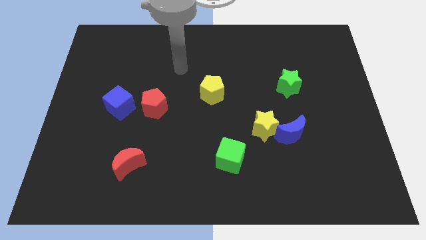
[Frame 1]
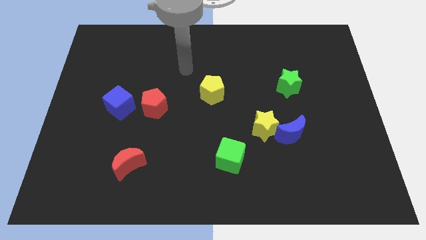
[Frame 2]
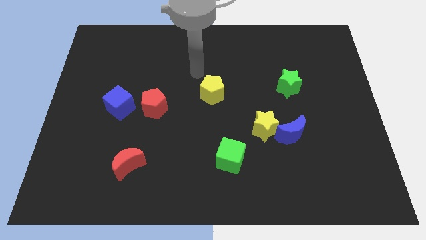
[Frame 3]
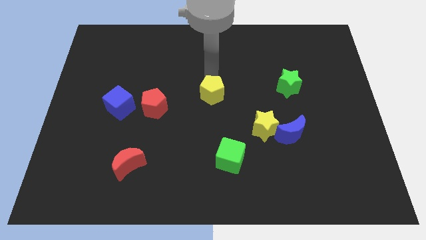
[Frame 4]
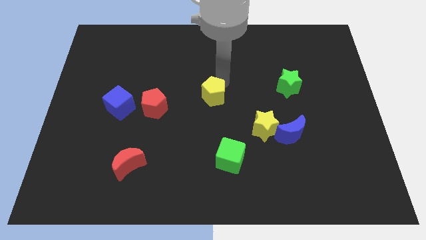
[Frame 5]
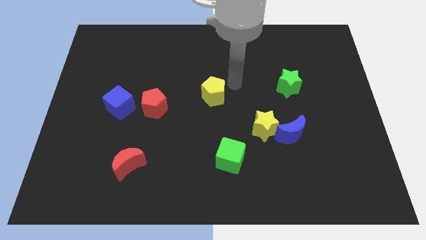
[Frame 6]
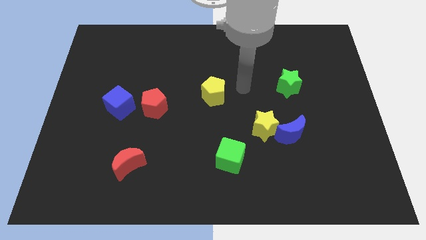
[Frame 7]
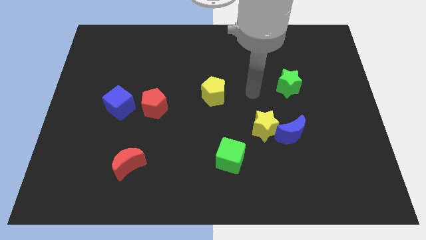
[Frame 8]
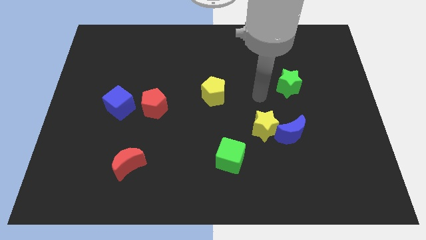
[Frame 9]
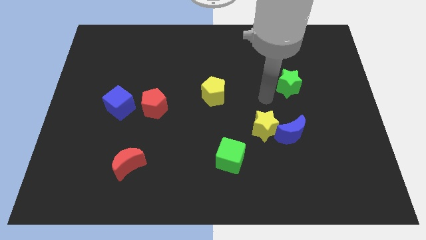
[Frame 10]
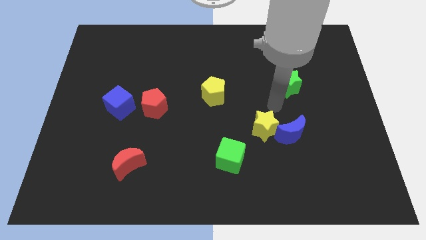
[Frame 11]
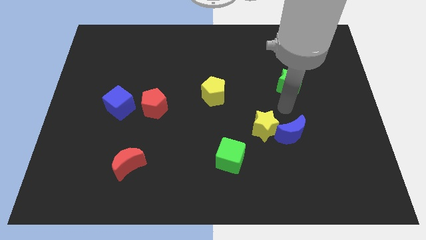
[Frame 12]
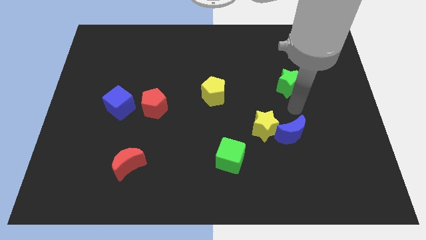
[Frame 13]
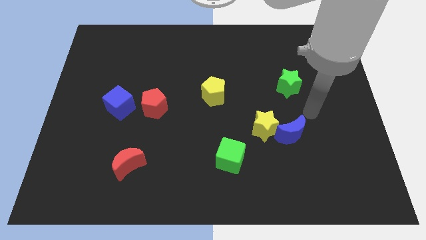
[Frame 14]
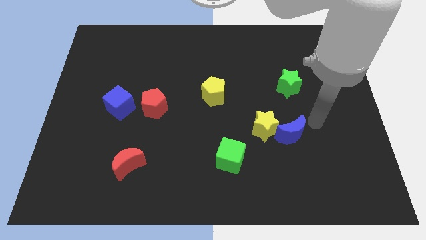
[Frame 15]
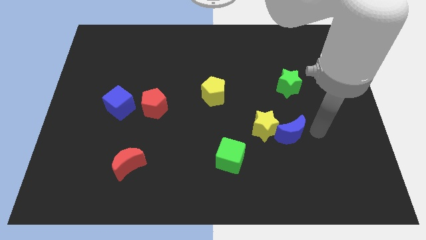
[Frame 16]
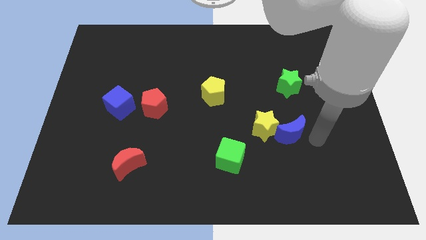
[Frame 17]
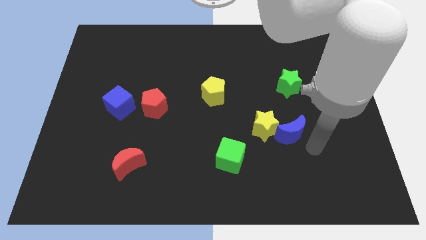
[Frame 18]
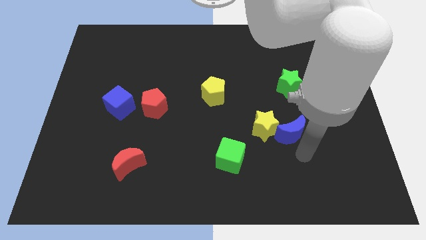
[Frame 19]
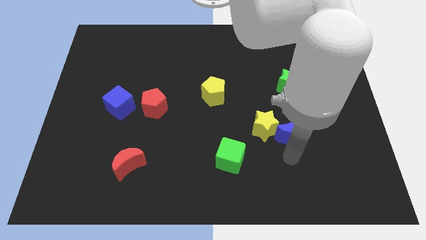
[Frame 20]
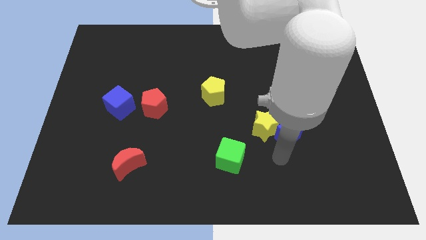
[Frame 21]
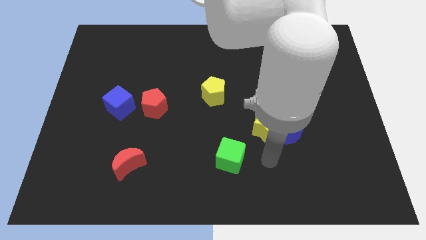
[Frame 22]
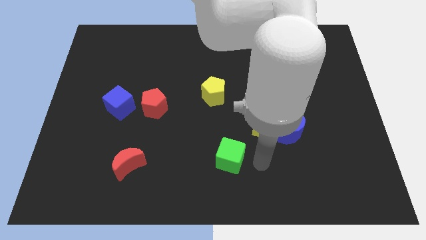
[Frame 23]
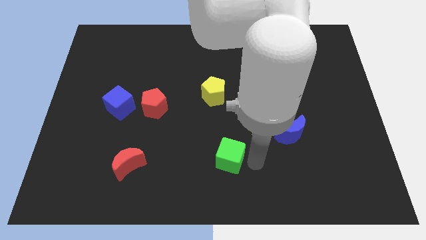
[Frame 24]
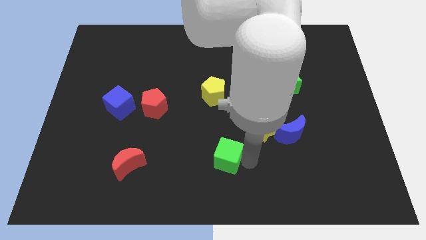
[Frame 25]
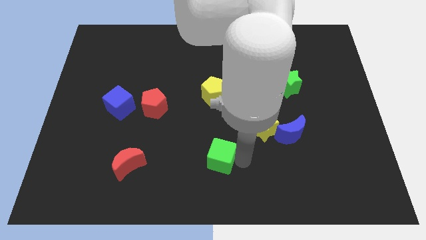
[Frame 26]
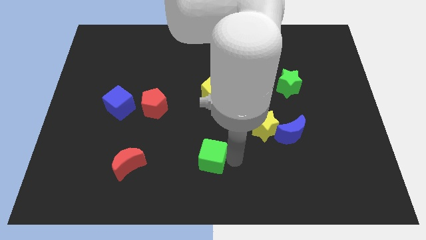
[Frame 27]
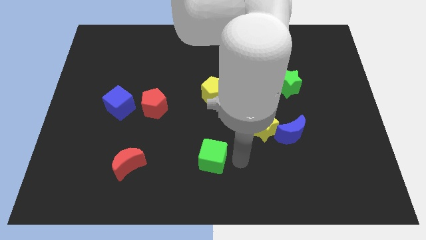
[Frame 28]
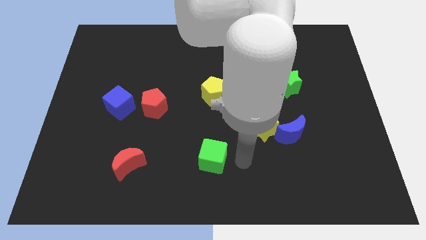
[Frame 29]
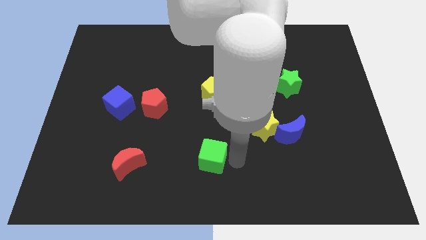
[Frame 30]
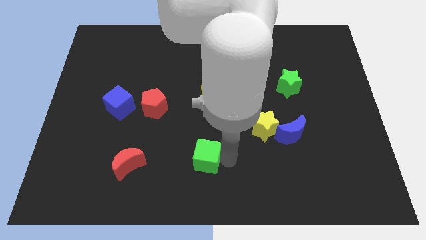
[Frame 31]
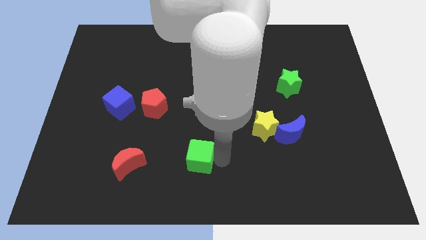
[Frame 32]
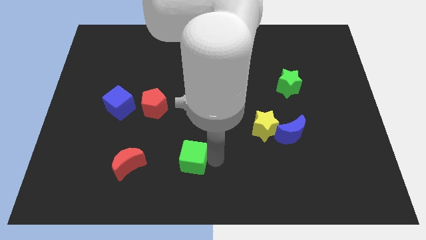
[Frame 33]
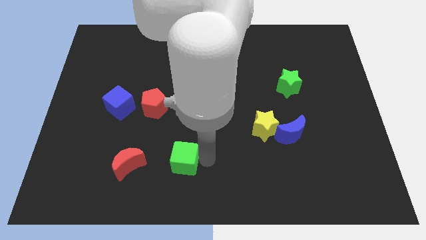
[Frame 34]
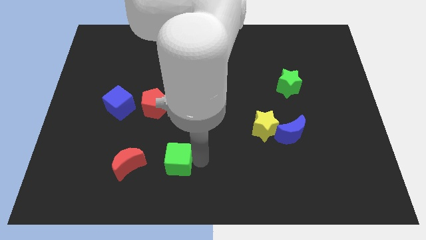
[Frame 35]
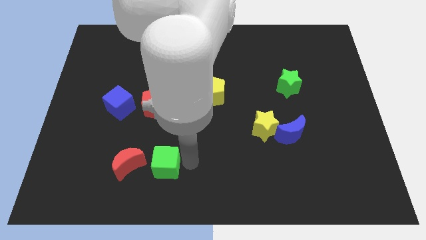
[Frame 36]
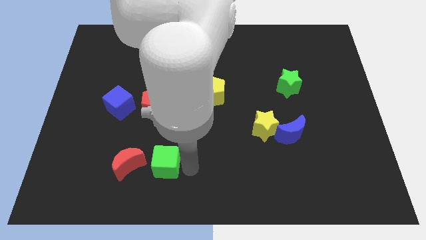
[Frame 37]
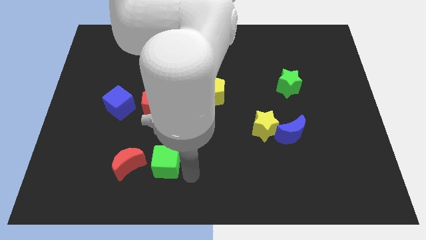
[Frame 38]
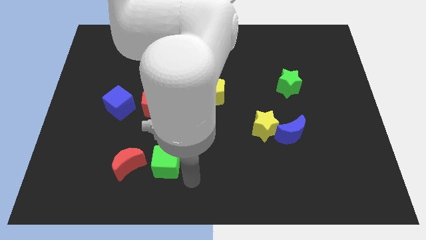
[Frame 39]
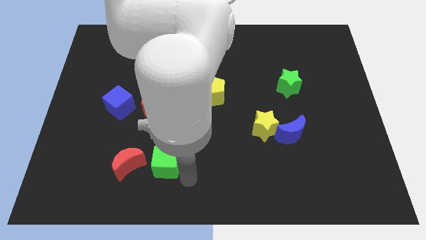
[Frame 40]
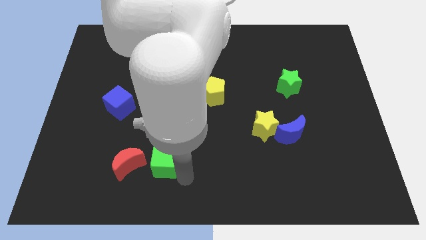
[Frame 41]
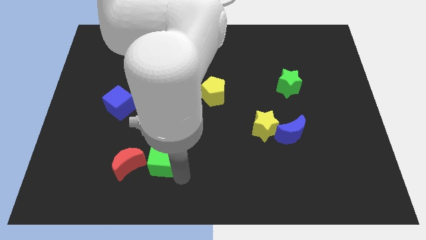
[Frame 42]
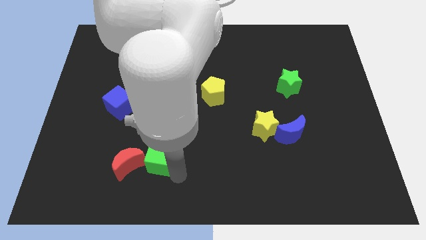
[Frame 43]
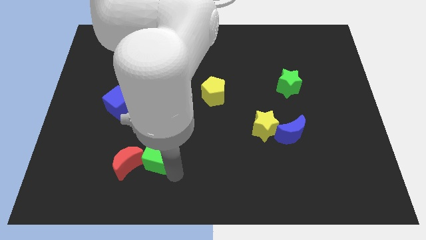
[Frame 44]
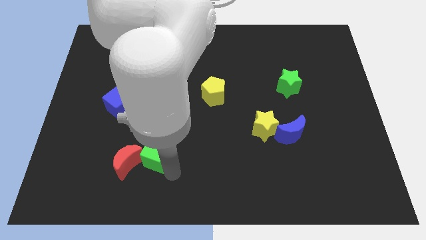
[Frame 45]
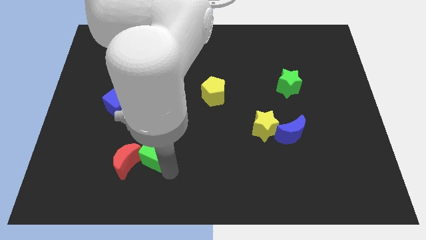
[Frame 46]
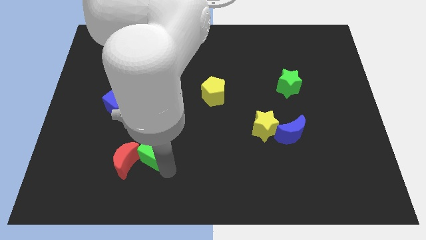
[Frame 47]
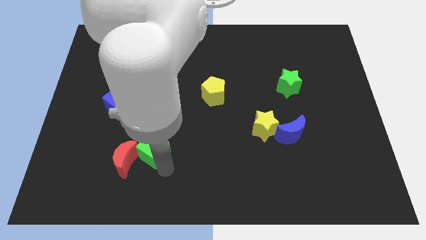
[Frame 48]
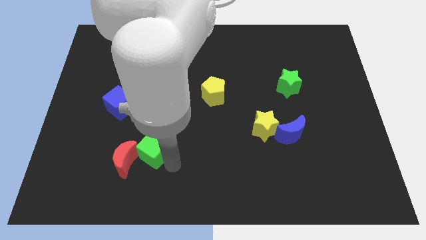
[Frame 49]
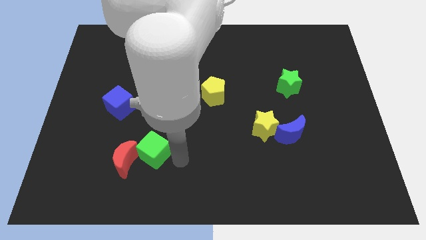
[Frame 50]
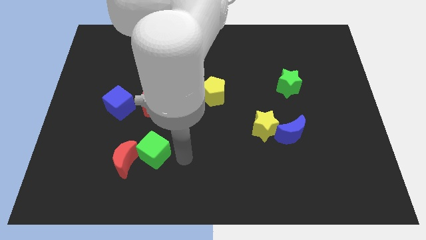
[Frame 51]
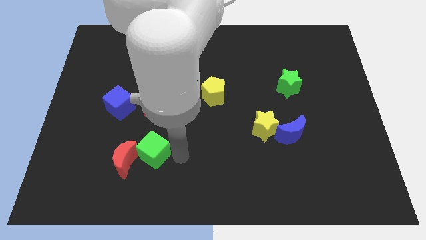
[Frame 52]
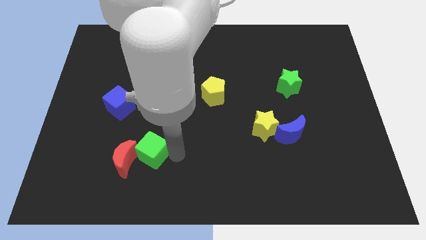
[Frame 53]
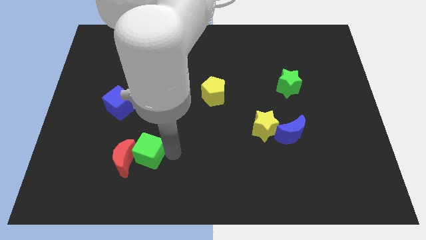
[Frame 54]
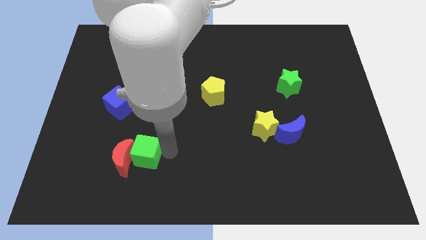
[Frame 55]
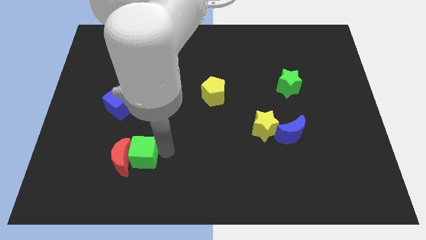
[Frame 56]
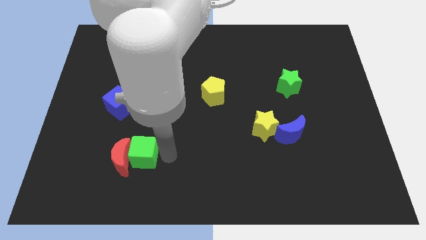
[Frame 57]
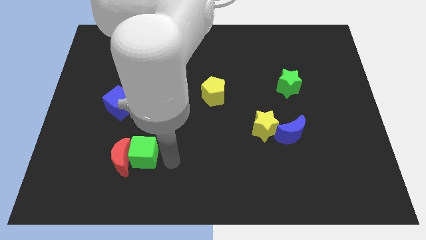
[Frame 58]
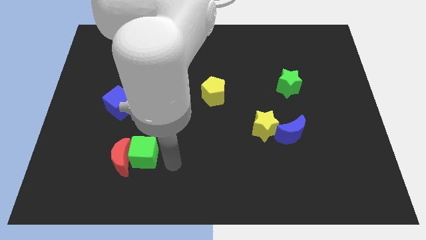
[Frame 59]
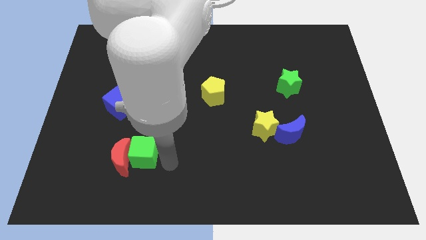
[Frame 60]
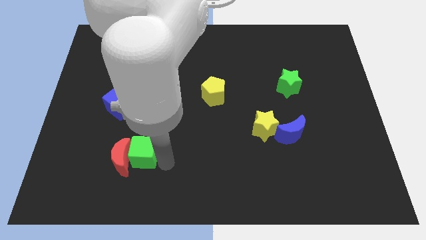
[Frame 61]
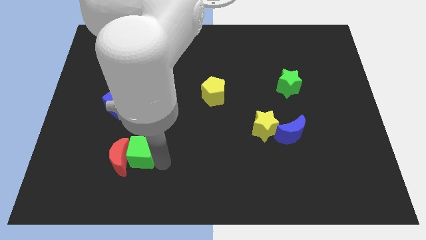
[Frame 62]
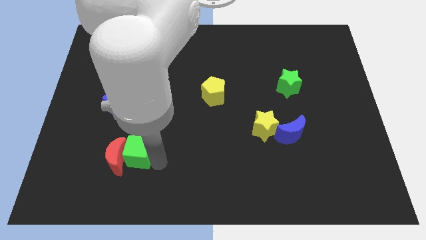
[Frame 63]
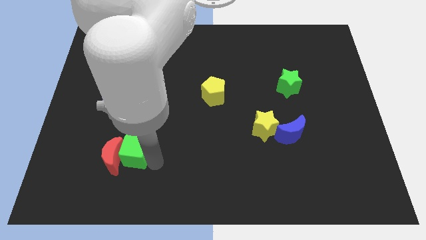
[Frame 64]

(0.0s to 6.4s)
slide the green cube to the left

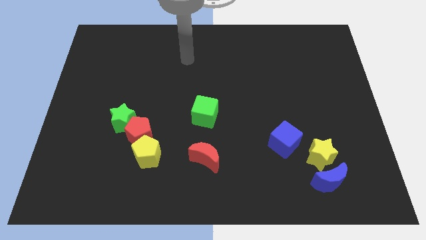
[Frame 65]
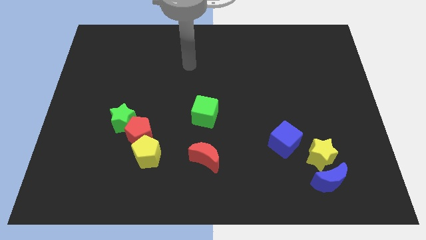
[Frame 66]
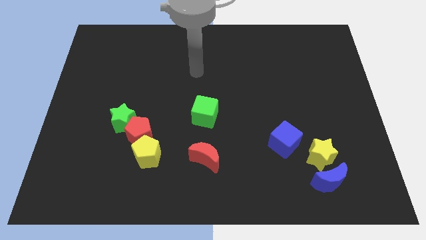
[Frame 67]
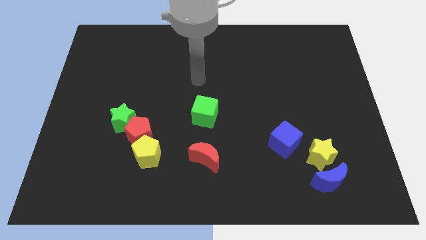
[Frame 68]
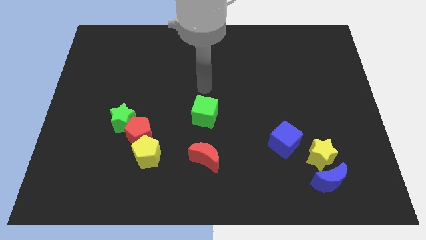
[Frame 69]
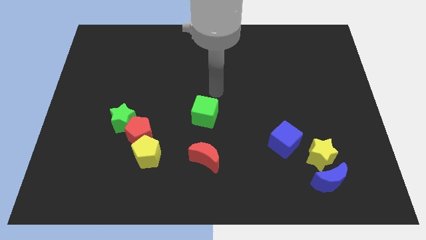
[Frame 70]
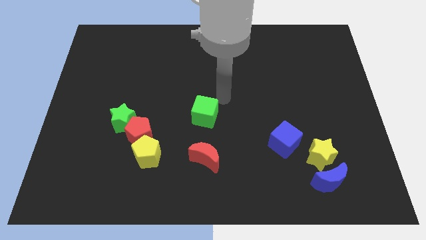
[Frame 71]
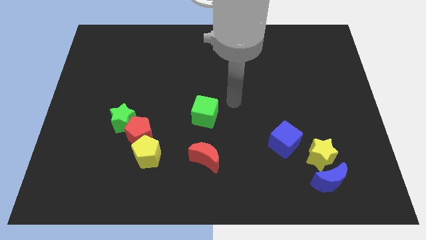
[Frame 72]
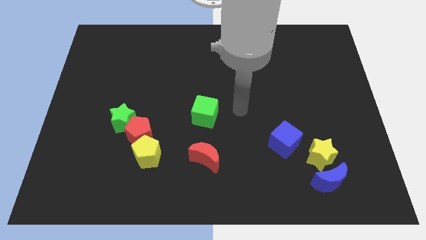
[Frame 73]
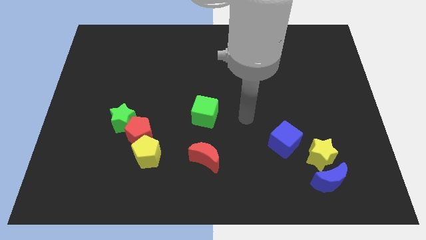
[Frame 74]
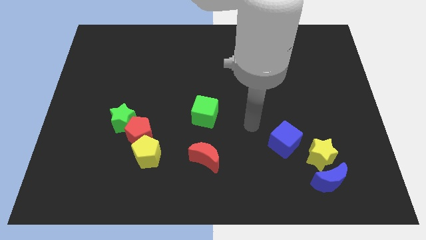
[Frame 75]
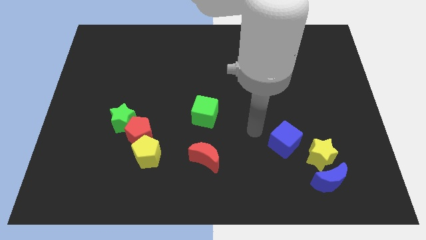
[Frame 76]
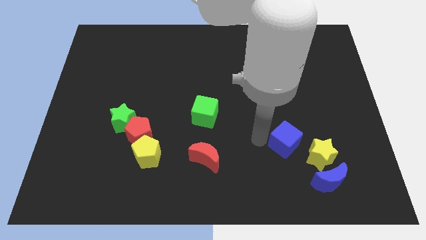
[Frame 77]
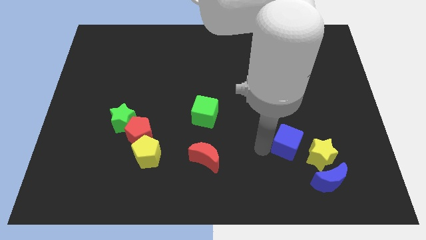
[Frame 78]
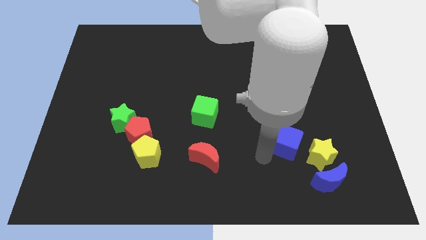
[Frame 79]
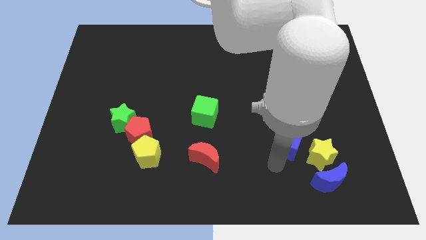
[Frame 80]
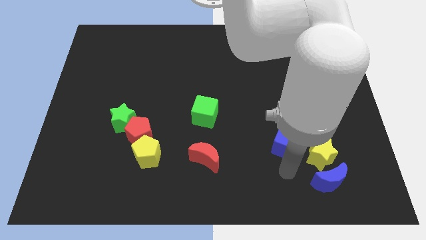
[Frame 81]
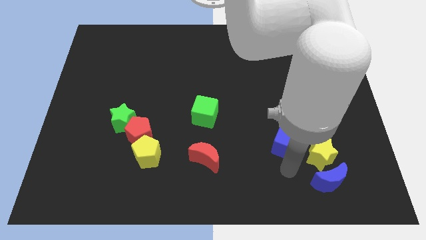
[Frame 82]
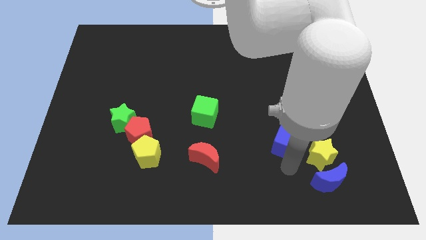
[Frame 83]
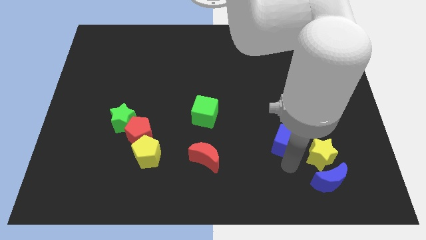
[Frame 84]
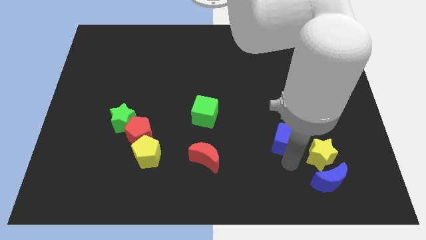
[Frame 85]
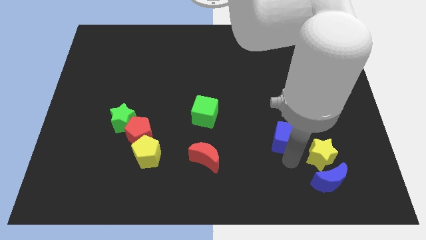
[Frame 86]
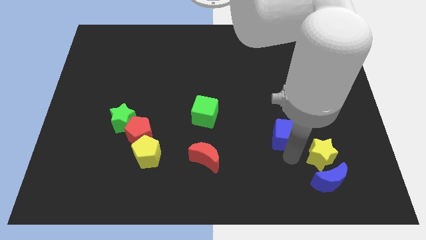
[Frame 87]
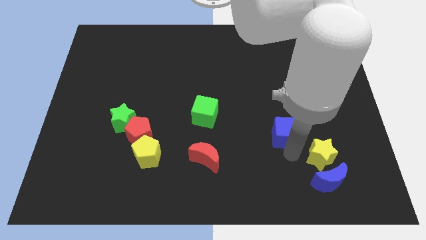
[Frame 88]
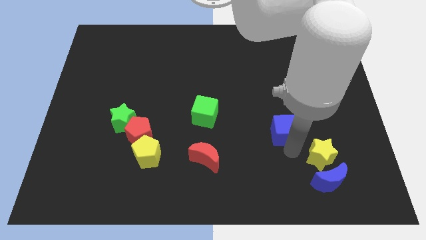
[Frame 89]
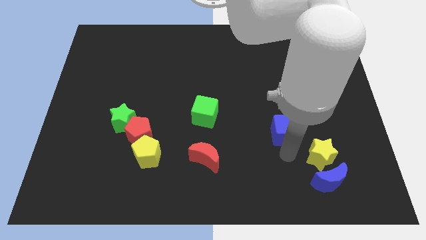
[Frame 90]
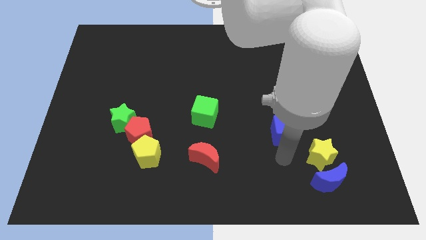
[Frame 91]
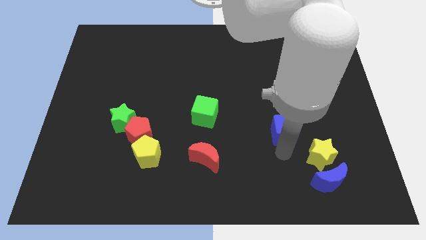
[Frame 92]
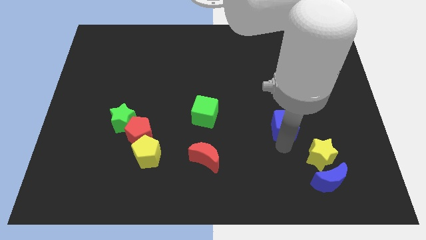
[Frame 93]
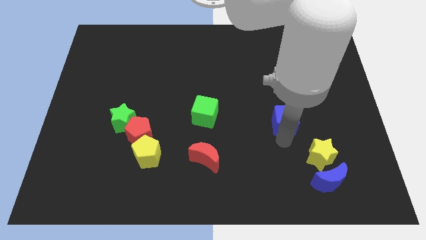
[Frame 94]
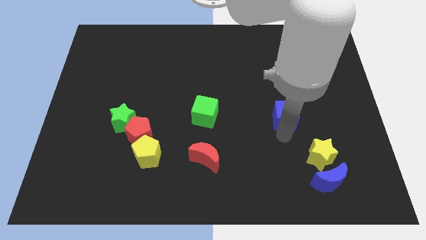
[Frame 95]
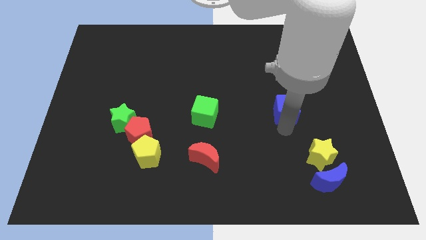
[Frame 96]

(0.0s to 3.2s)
slide the blue cube upwards a bit
